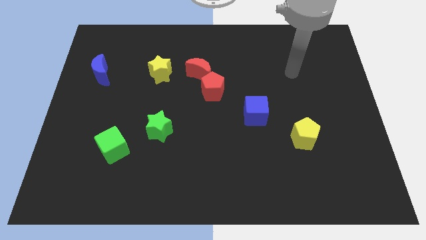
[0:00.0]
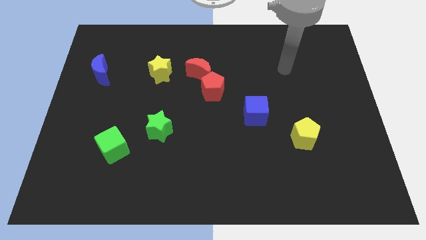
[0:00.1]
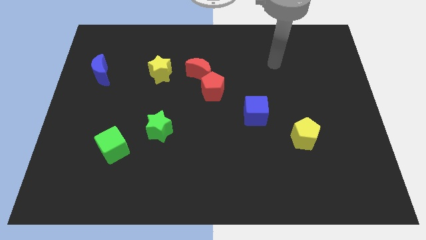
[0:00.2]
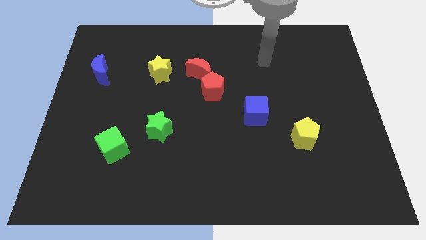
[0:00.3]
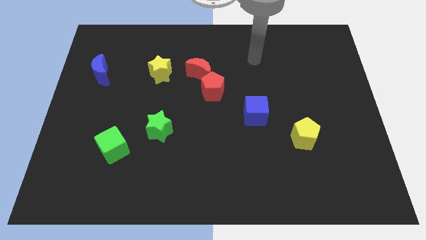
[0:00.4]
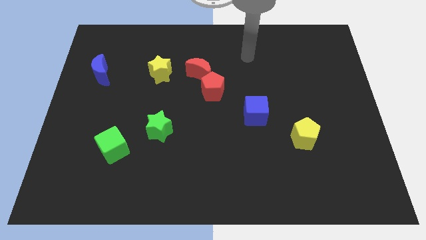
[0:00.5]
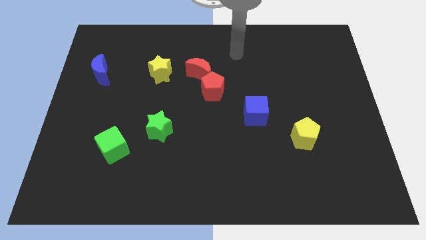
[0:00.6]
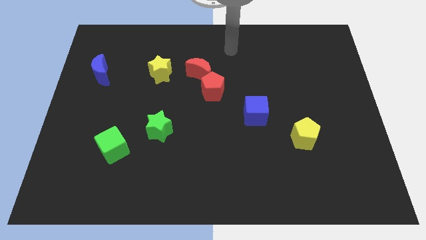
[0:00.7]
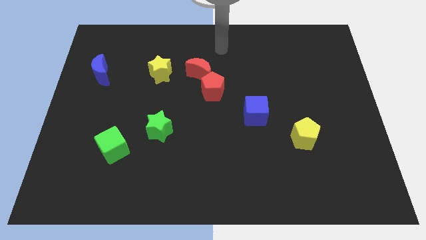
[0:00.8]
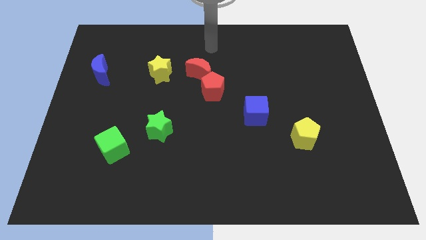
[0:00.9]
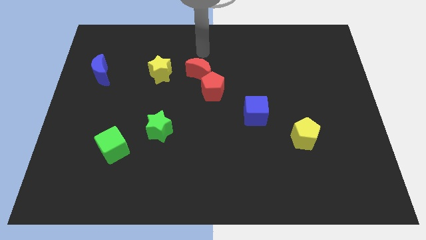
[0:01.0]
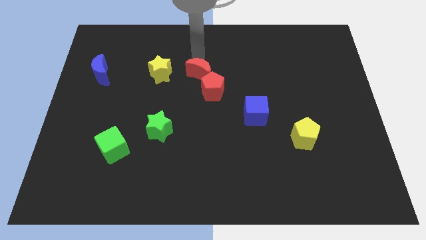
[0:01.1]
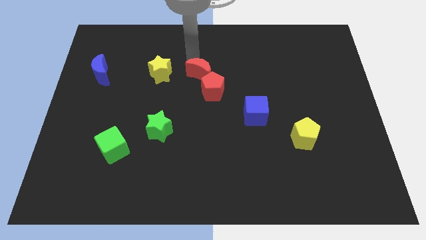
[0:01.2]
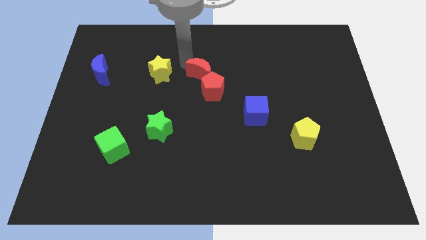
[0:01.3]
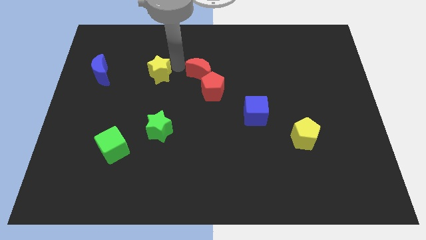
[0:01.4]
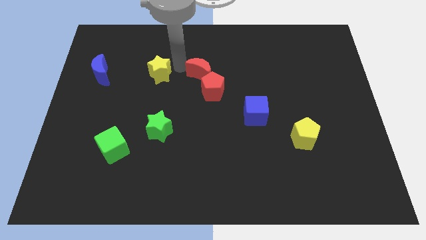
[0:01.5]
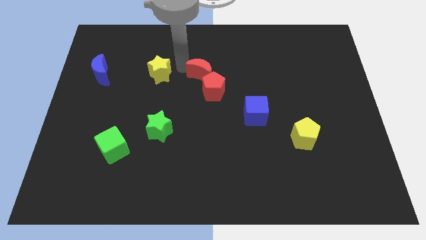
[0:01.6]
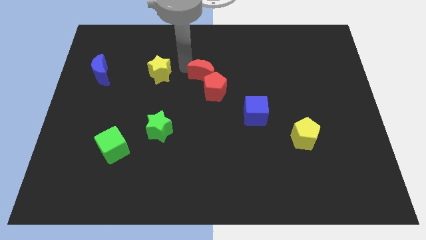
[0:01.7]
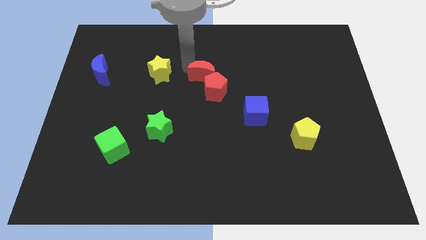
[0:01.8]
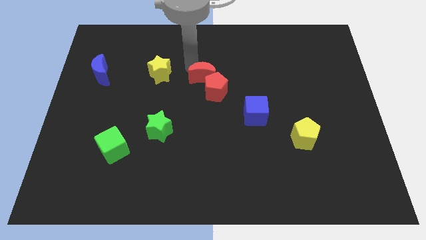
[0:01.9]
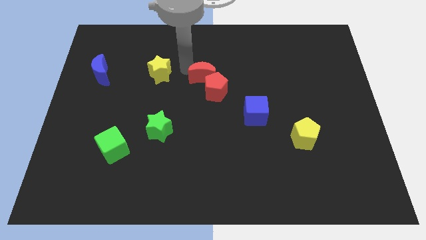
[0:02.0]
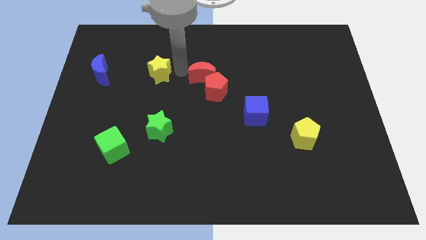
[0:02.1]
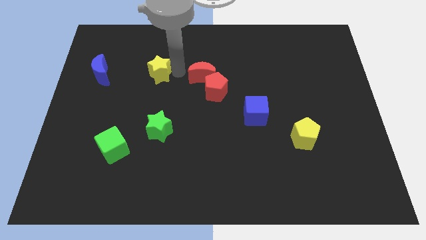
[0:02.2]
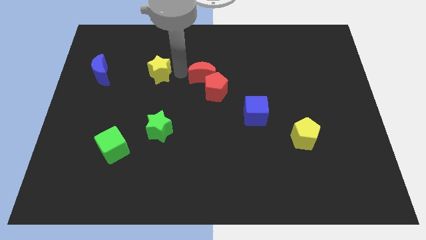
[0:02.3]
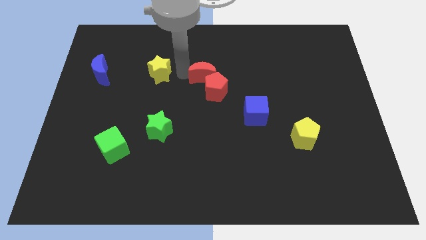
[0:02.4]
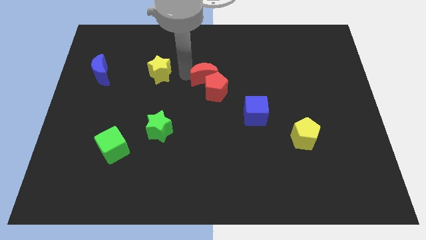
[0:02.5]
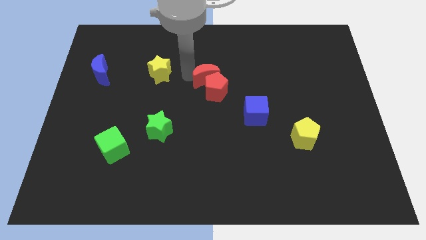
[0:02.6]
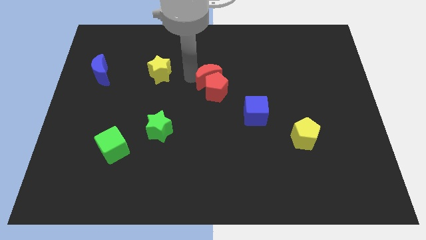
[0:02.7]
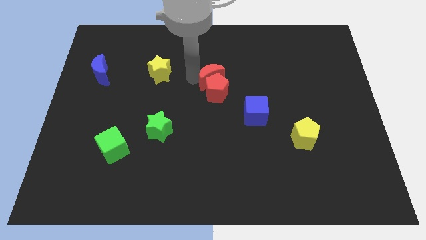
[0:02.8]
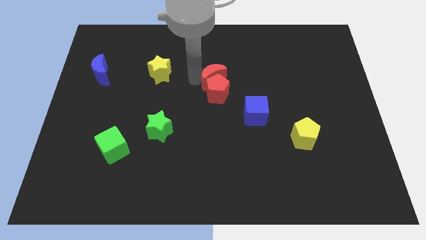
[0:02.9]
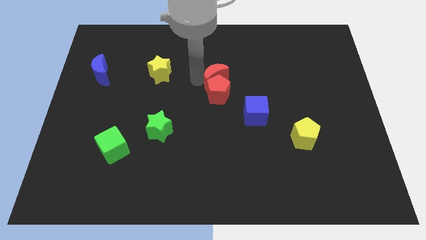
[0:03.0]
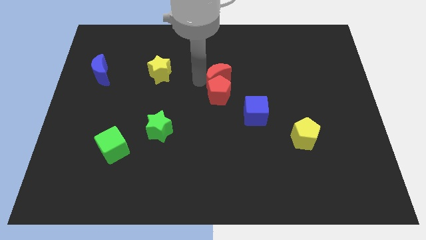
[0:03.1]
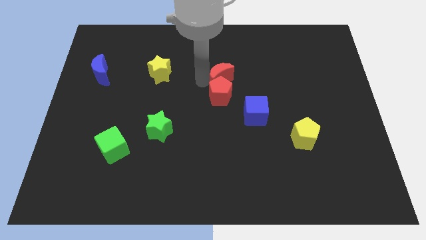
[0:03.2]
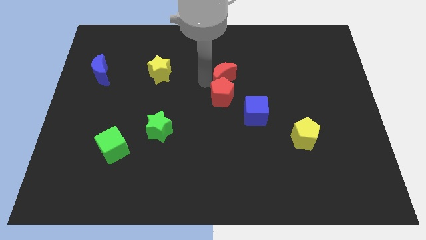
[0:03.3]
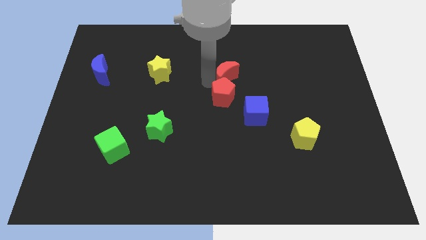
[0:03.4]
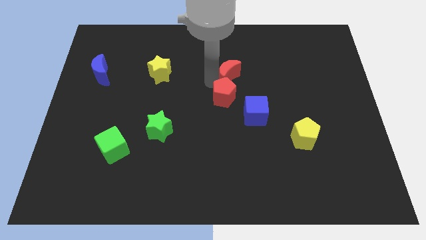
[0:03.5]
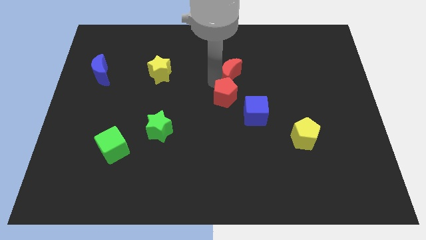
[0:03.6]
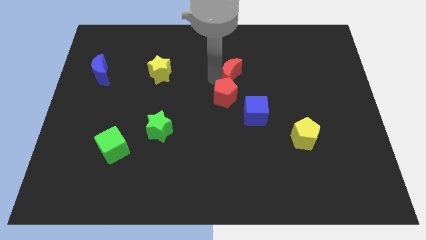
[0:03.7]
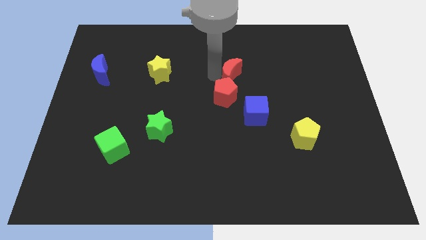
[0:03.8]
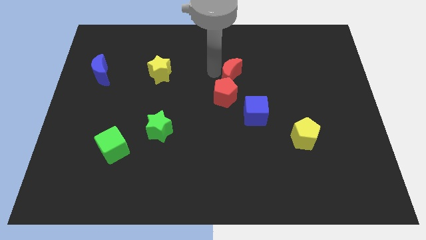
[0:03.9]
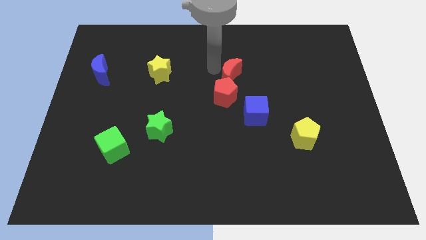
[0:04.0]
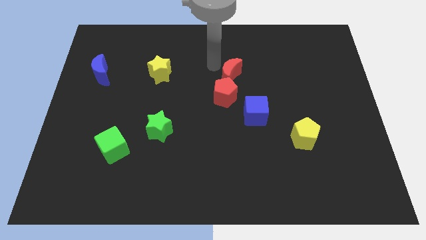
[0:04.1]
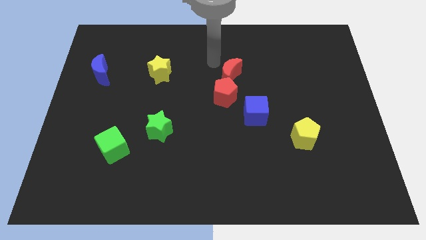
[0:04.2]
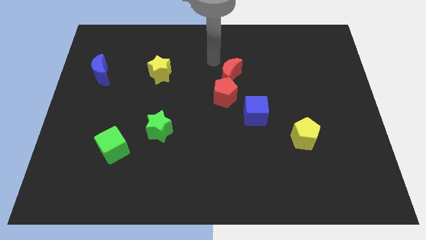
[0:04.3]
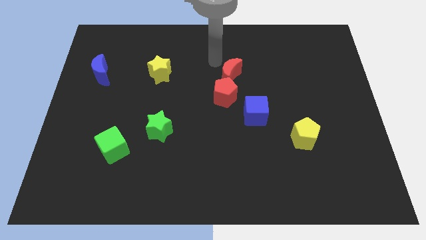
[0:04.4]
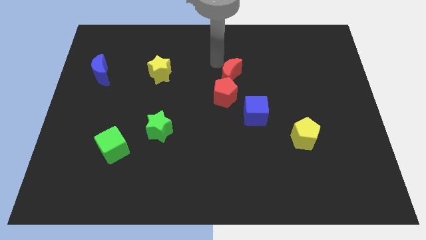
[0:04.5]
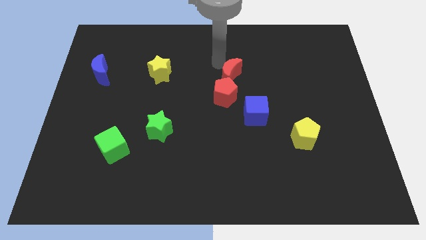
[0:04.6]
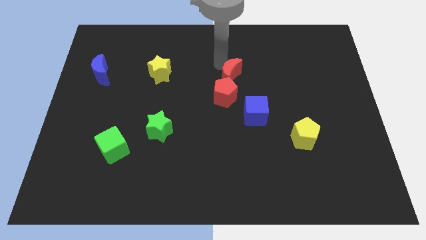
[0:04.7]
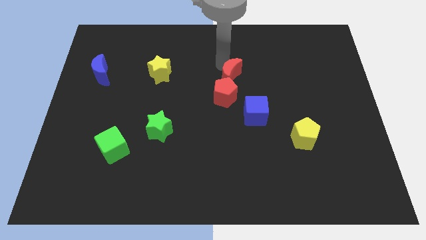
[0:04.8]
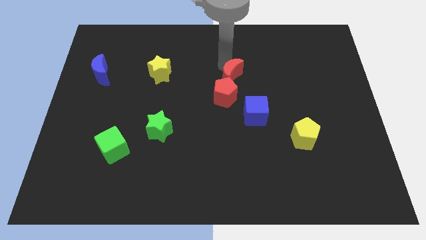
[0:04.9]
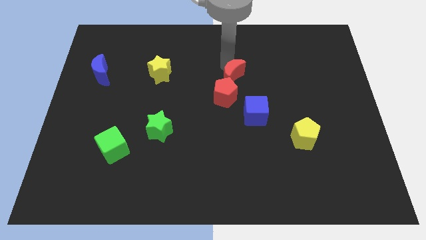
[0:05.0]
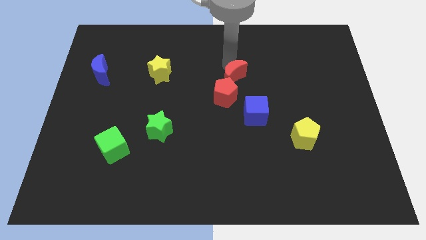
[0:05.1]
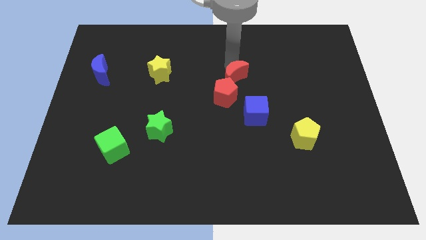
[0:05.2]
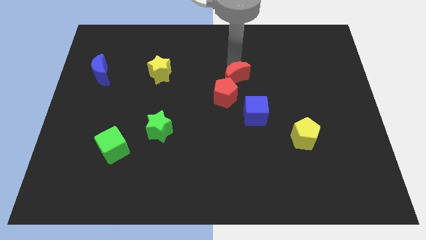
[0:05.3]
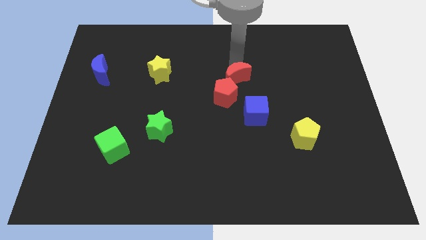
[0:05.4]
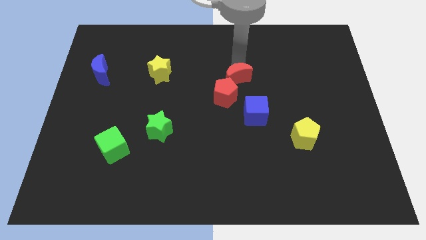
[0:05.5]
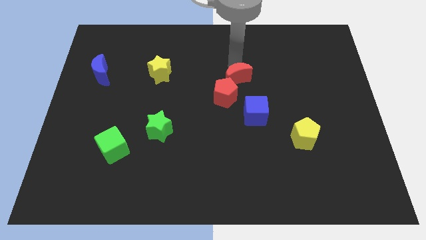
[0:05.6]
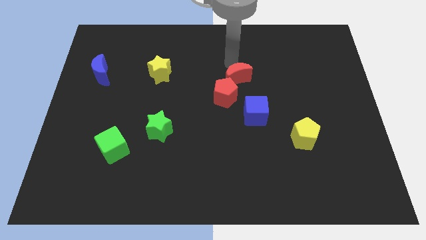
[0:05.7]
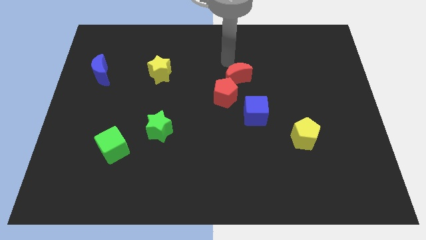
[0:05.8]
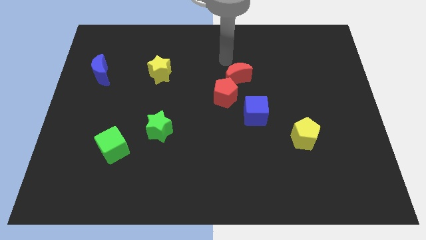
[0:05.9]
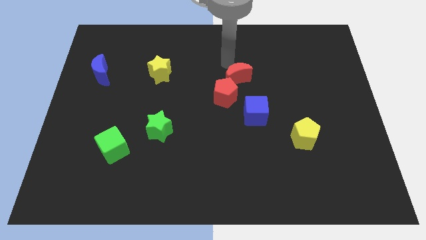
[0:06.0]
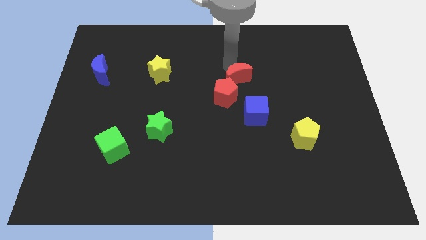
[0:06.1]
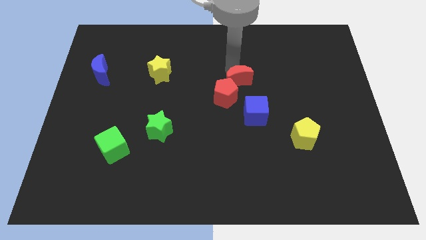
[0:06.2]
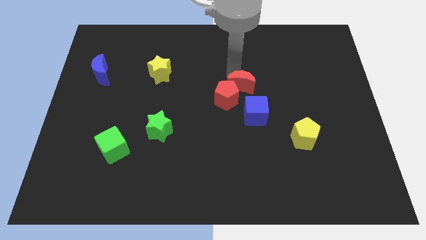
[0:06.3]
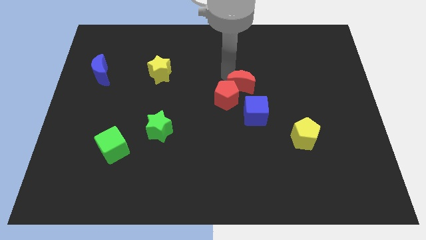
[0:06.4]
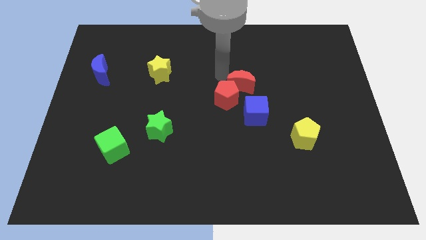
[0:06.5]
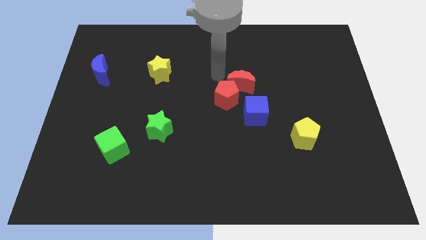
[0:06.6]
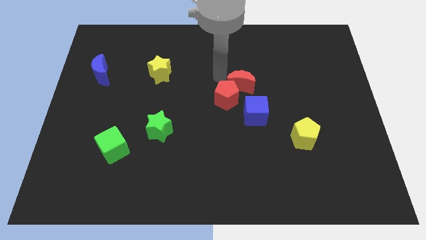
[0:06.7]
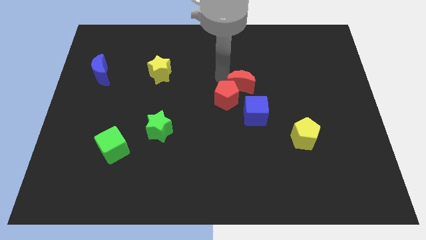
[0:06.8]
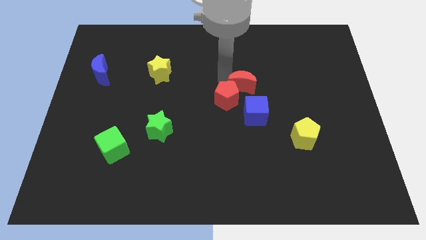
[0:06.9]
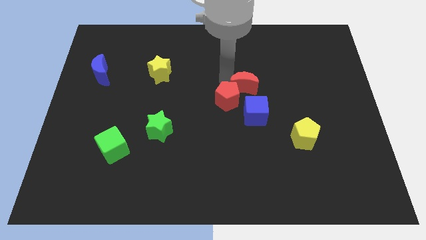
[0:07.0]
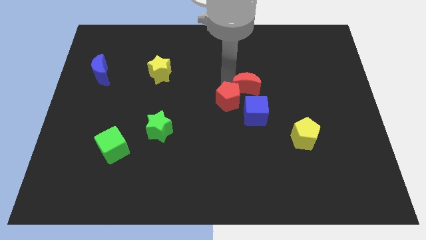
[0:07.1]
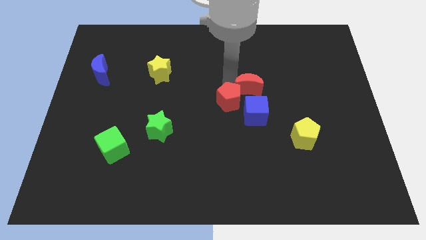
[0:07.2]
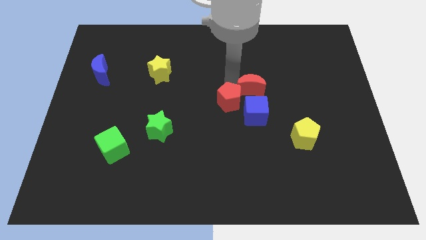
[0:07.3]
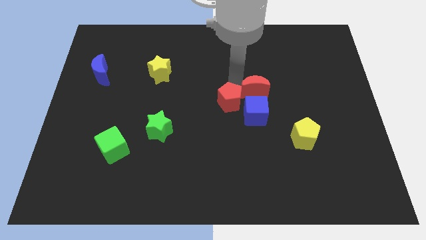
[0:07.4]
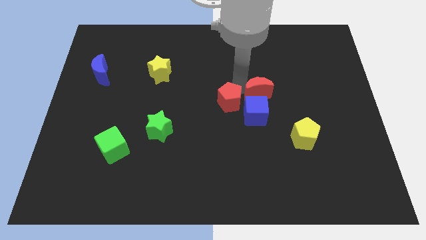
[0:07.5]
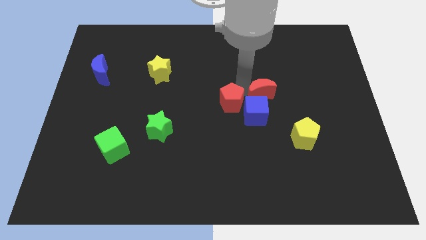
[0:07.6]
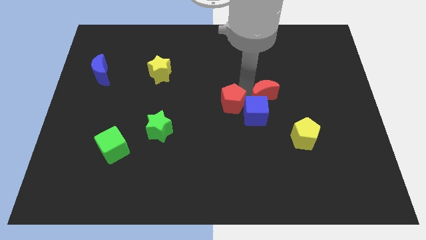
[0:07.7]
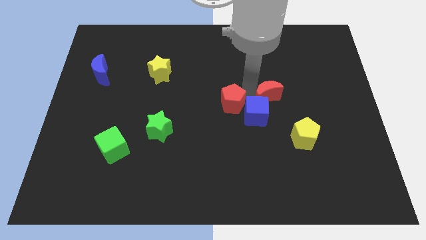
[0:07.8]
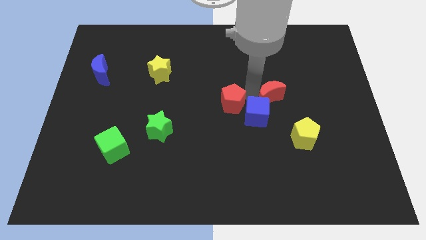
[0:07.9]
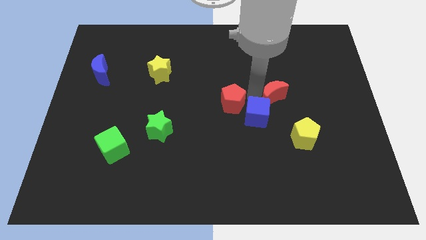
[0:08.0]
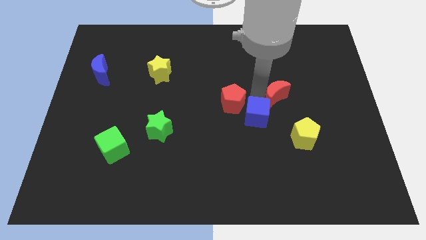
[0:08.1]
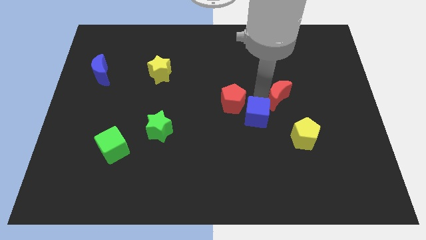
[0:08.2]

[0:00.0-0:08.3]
slide the red moon to the top side of the yellow pentagon
